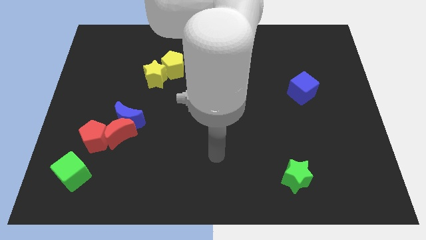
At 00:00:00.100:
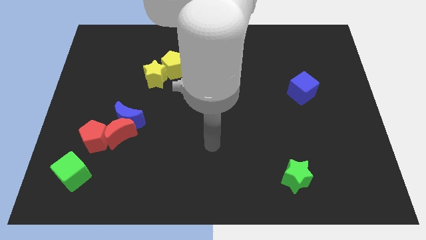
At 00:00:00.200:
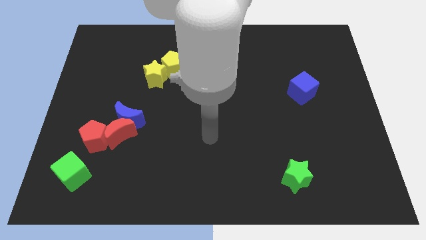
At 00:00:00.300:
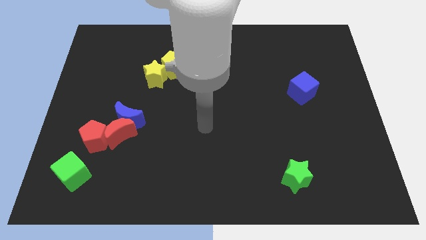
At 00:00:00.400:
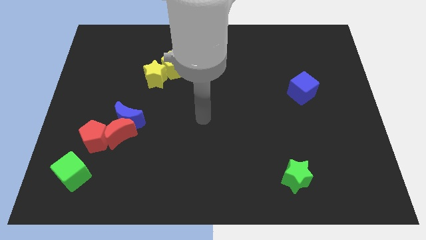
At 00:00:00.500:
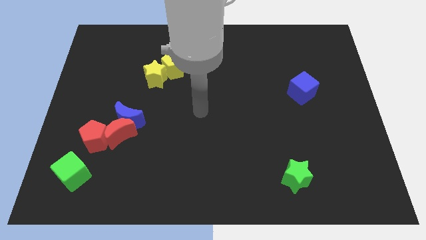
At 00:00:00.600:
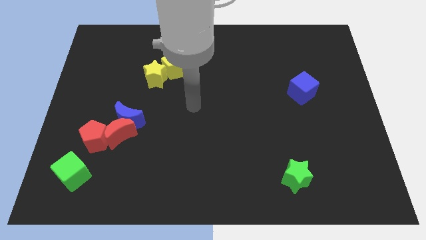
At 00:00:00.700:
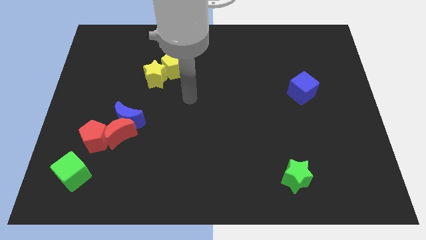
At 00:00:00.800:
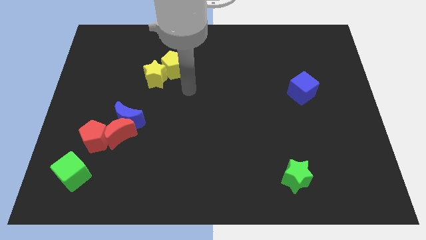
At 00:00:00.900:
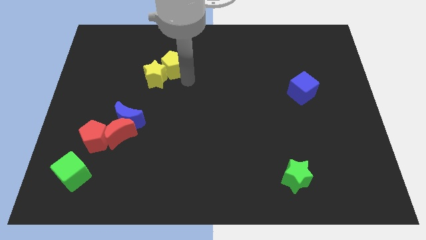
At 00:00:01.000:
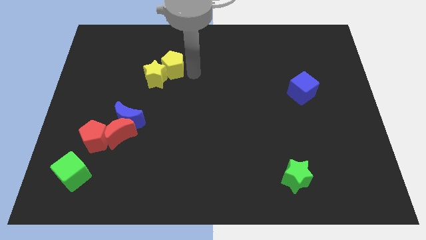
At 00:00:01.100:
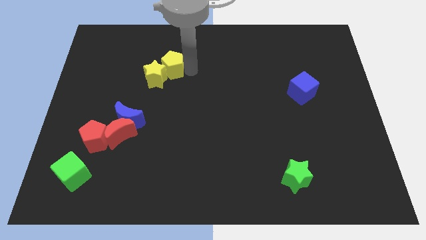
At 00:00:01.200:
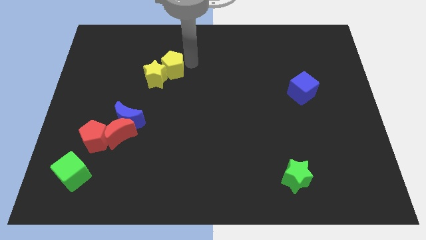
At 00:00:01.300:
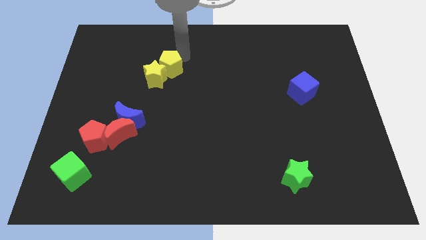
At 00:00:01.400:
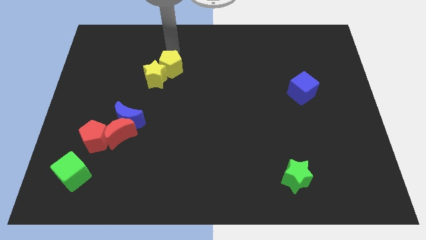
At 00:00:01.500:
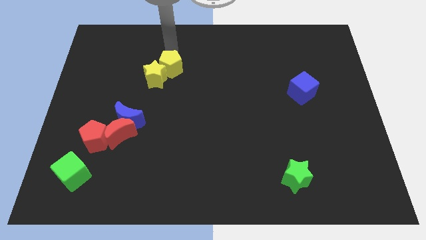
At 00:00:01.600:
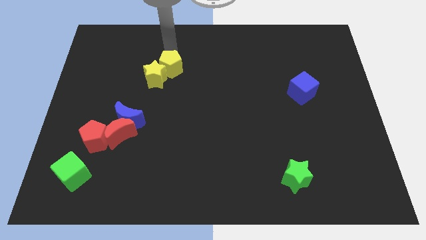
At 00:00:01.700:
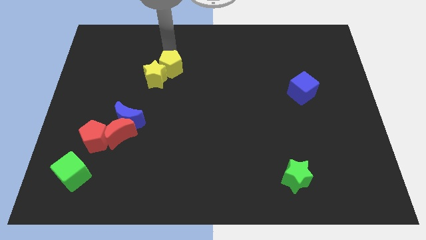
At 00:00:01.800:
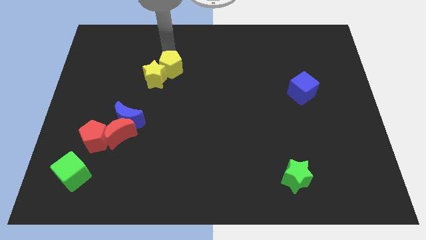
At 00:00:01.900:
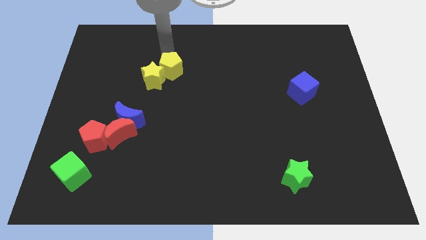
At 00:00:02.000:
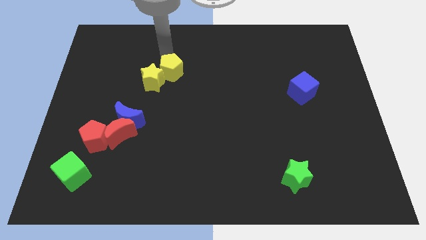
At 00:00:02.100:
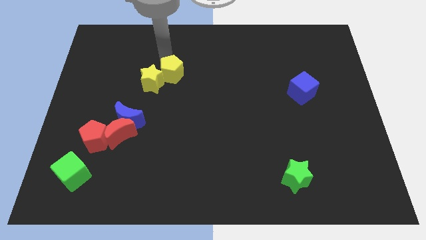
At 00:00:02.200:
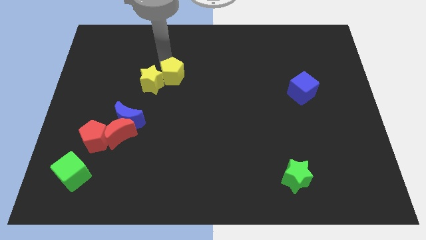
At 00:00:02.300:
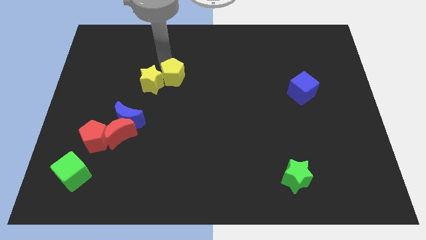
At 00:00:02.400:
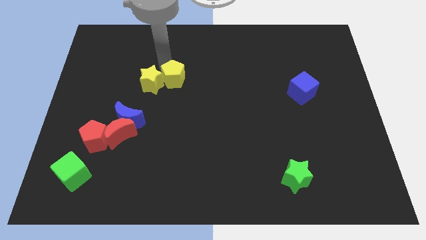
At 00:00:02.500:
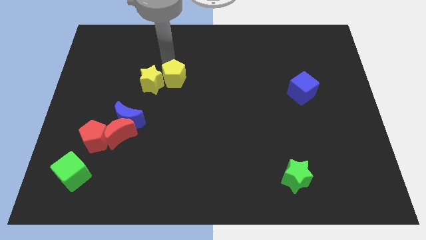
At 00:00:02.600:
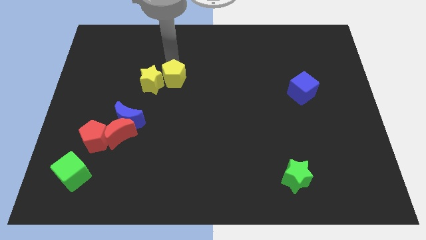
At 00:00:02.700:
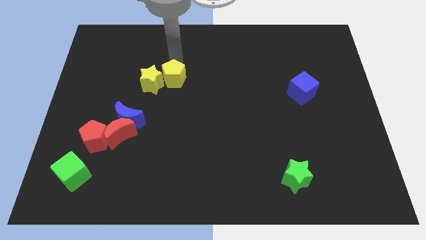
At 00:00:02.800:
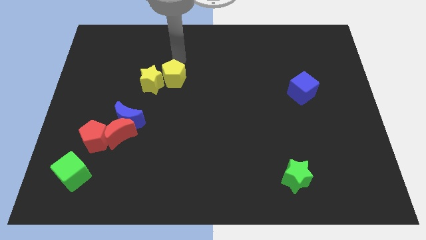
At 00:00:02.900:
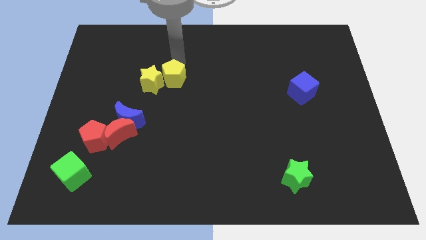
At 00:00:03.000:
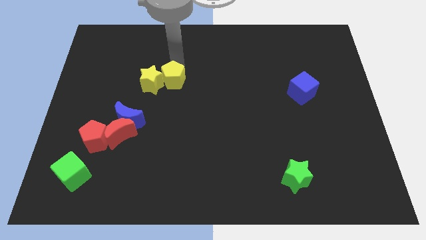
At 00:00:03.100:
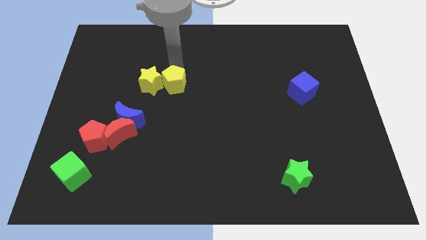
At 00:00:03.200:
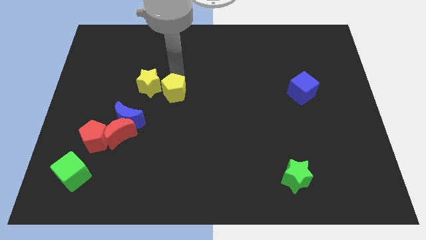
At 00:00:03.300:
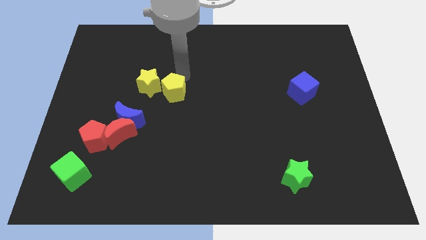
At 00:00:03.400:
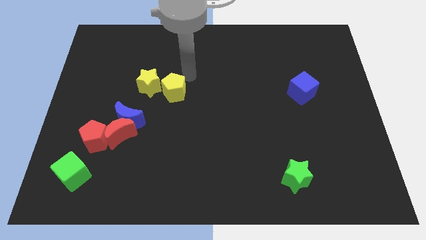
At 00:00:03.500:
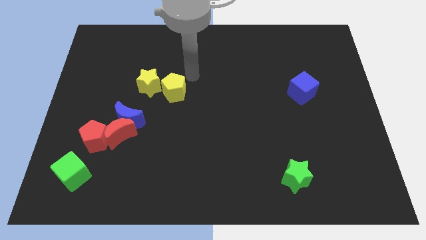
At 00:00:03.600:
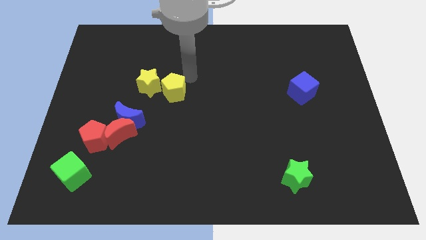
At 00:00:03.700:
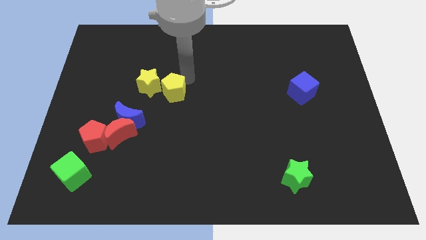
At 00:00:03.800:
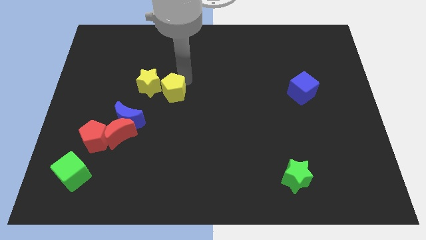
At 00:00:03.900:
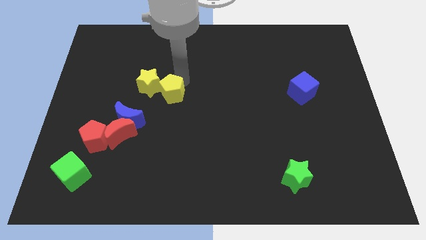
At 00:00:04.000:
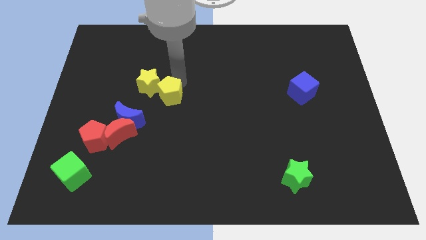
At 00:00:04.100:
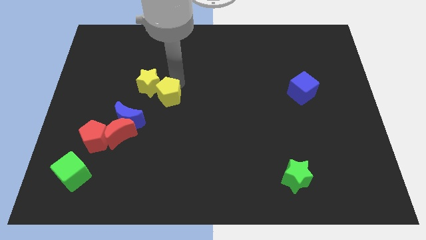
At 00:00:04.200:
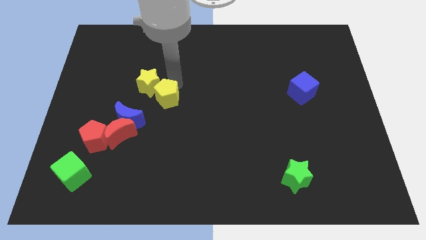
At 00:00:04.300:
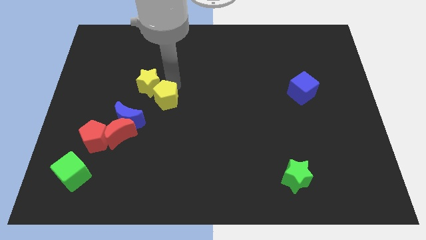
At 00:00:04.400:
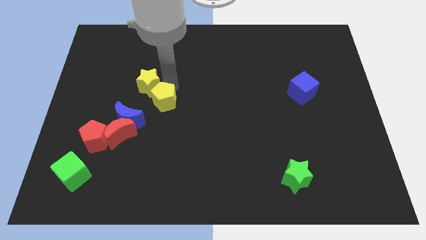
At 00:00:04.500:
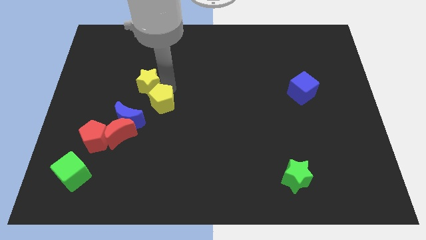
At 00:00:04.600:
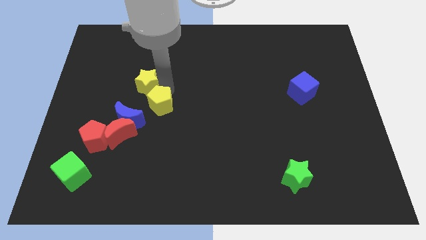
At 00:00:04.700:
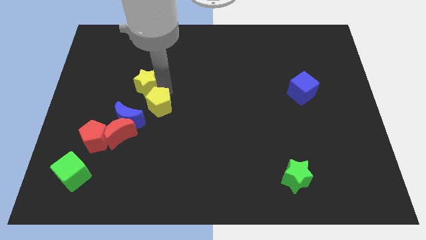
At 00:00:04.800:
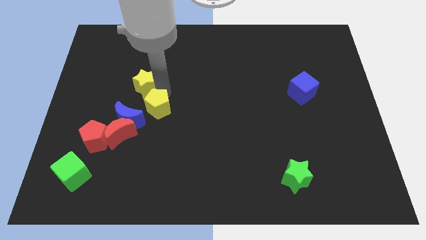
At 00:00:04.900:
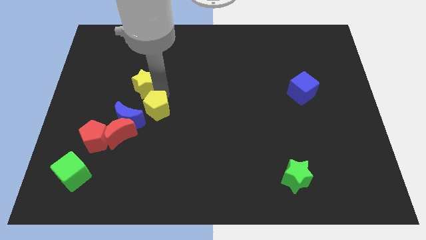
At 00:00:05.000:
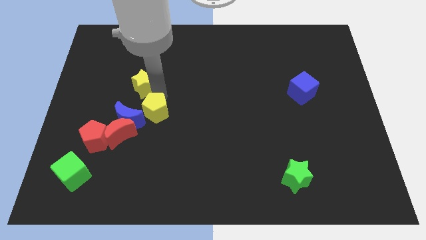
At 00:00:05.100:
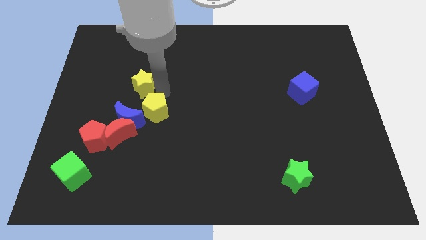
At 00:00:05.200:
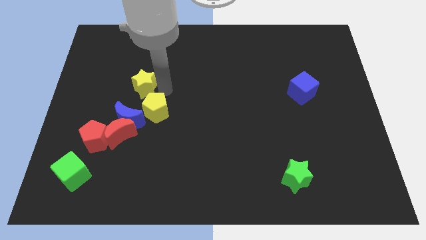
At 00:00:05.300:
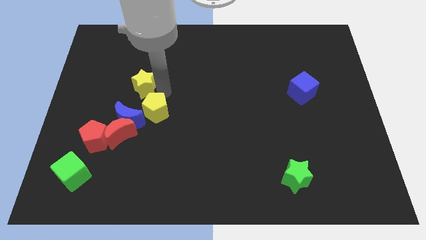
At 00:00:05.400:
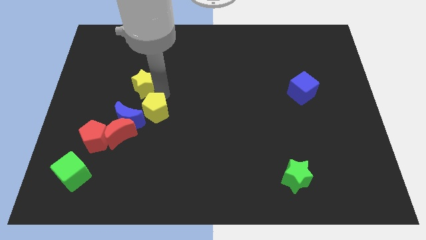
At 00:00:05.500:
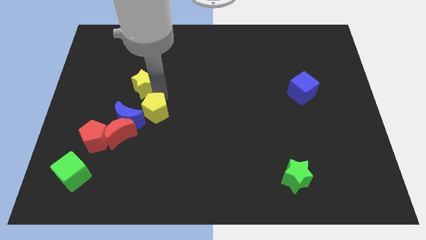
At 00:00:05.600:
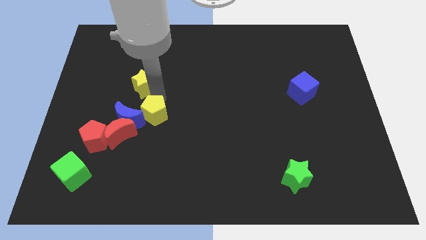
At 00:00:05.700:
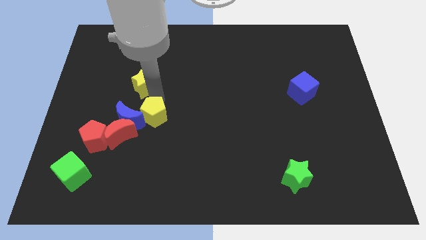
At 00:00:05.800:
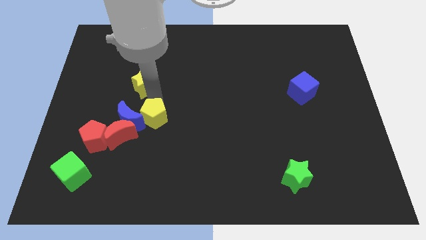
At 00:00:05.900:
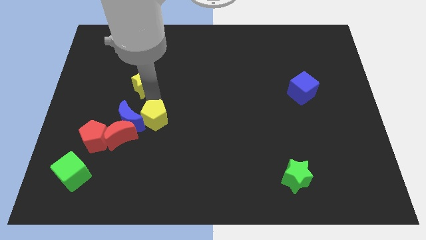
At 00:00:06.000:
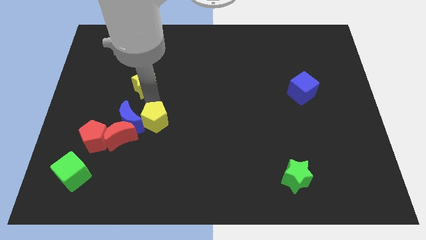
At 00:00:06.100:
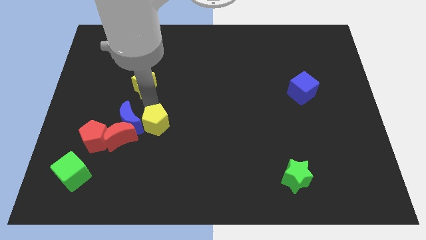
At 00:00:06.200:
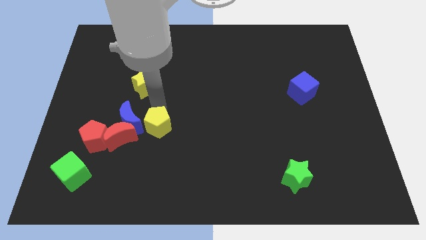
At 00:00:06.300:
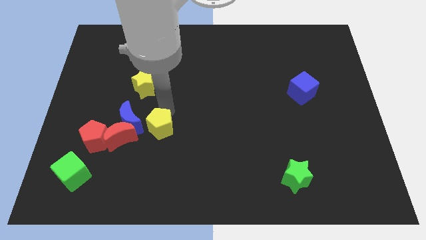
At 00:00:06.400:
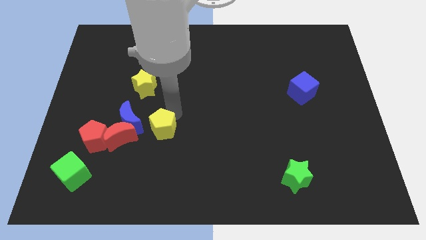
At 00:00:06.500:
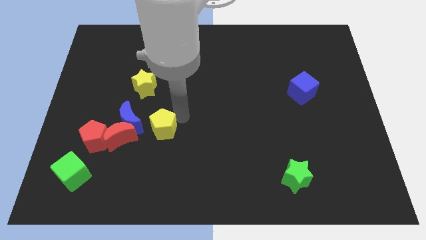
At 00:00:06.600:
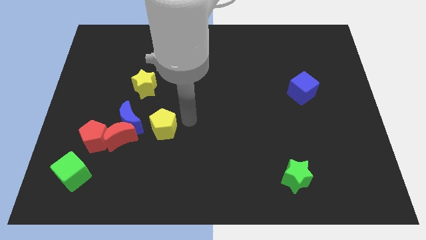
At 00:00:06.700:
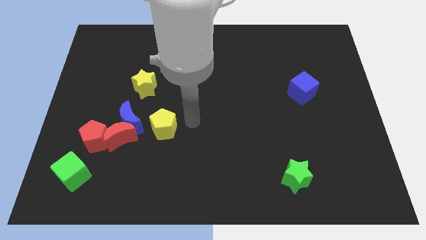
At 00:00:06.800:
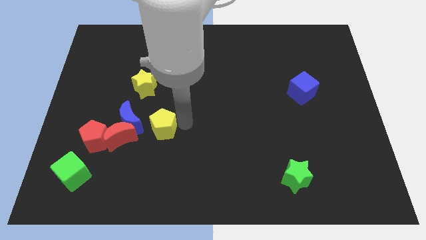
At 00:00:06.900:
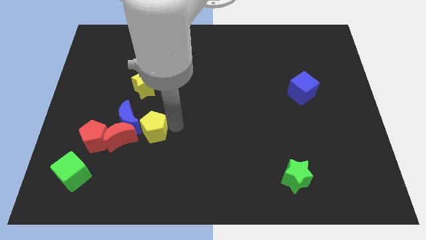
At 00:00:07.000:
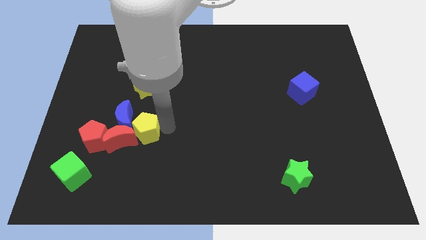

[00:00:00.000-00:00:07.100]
slide the yellow pentagon next to the red moon
